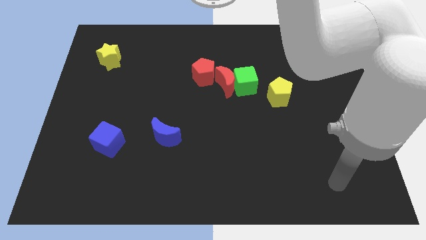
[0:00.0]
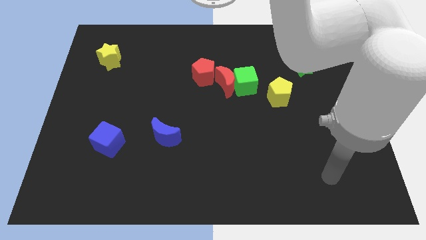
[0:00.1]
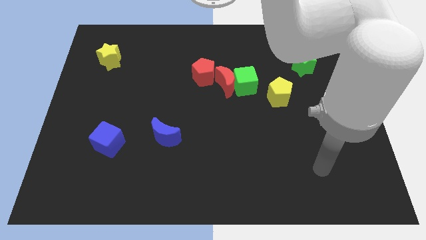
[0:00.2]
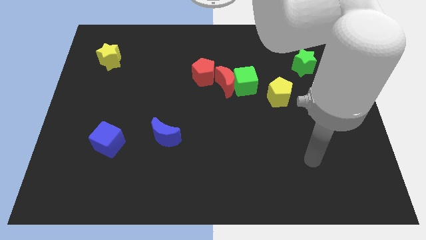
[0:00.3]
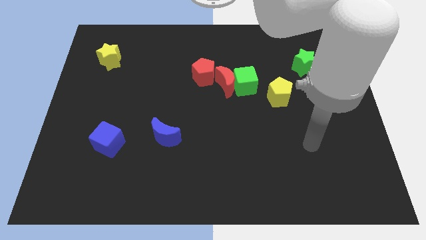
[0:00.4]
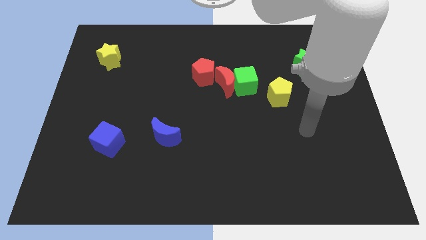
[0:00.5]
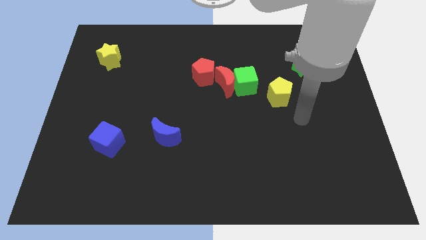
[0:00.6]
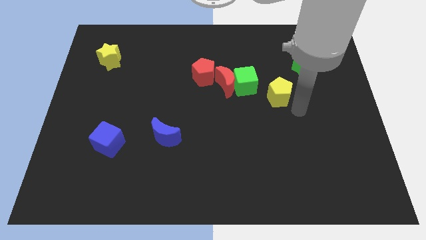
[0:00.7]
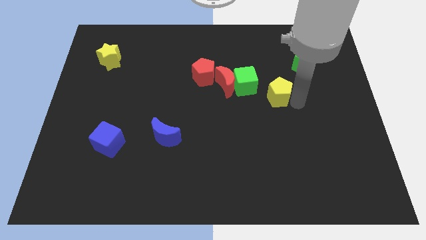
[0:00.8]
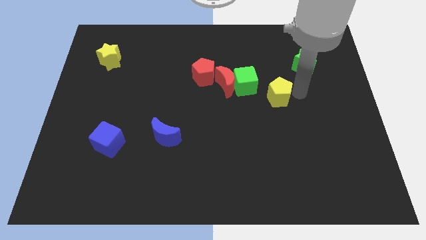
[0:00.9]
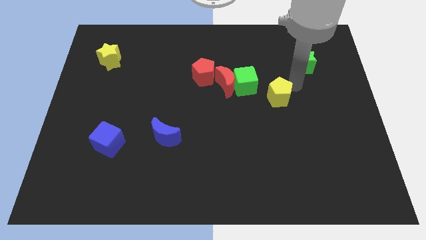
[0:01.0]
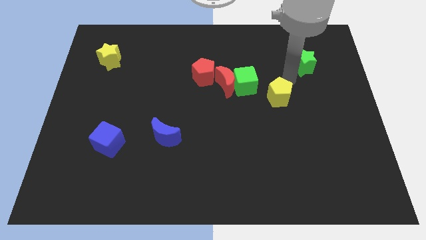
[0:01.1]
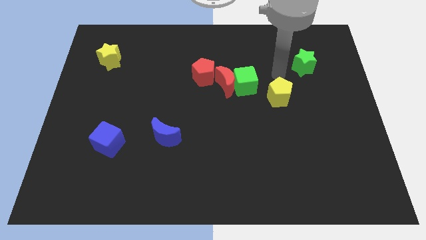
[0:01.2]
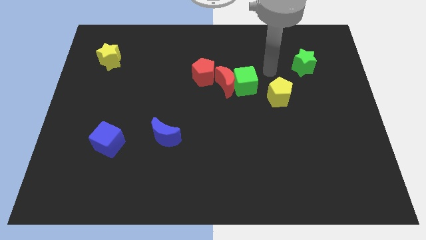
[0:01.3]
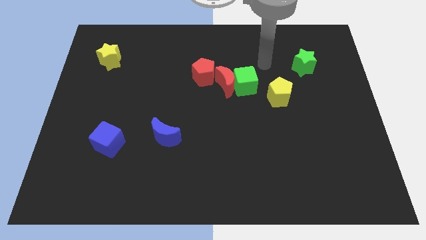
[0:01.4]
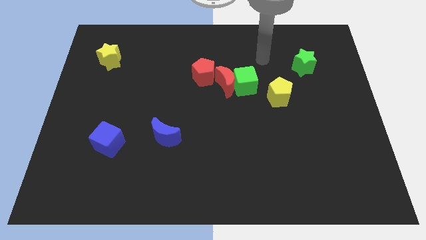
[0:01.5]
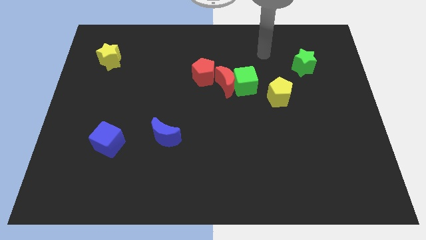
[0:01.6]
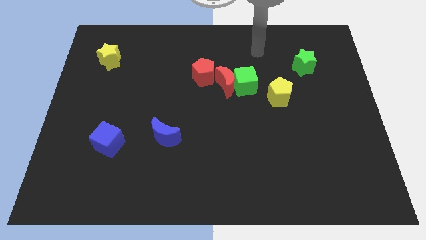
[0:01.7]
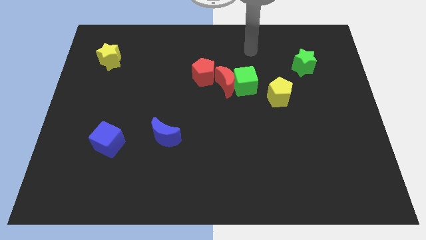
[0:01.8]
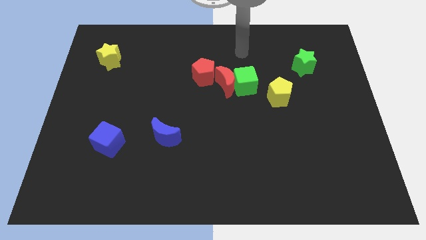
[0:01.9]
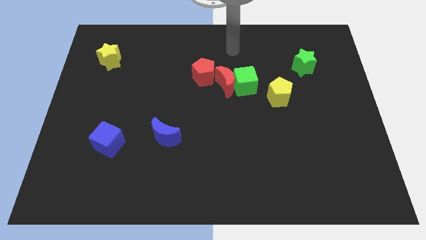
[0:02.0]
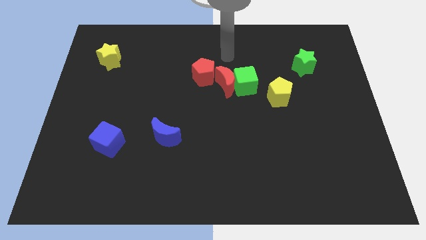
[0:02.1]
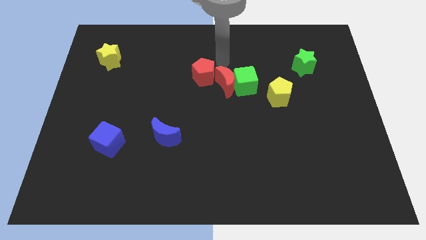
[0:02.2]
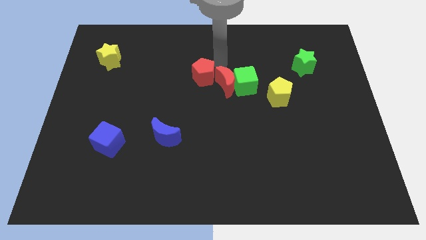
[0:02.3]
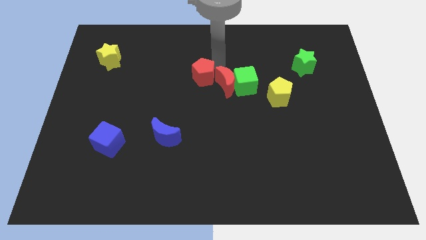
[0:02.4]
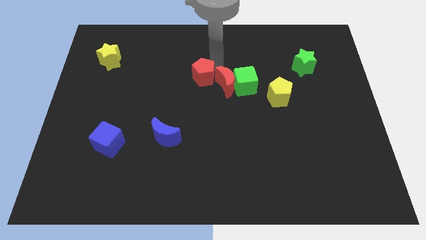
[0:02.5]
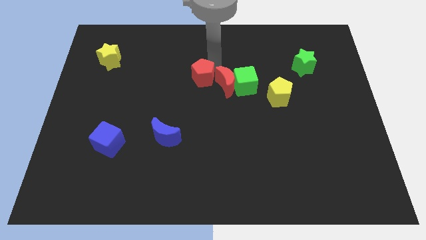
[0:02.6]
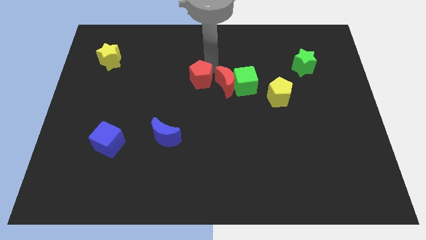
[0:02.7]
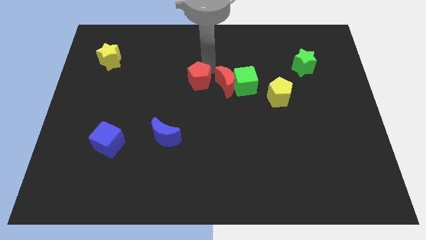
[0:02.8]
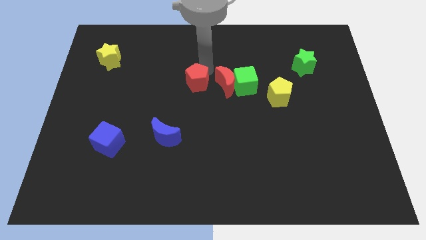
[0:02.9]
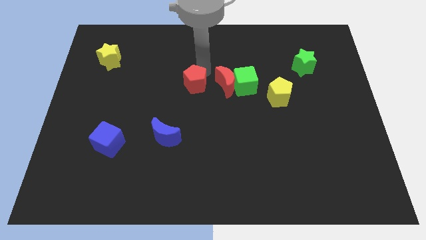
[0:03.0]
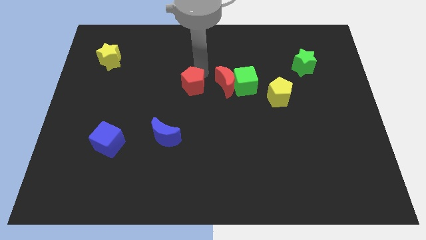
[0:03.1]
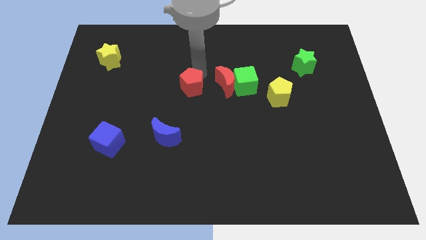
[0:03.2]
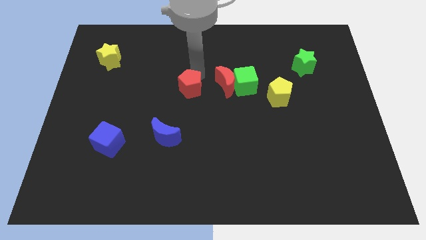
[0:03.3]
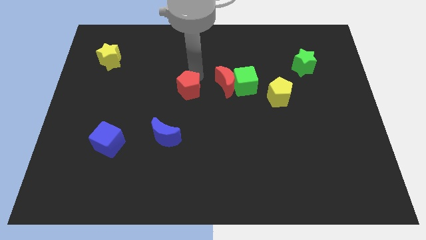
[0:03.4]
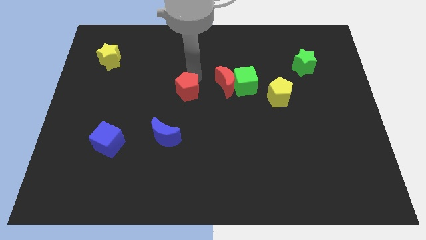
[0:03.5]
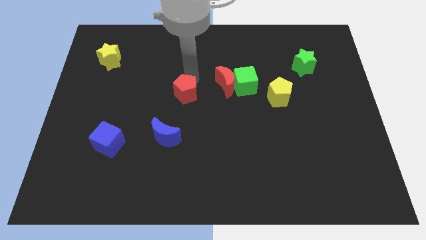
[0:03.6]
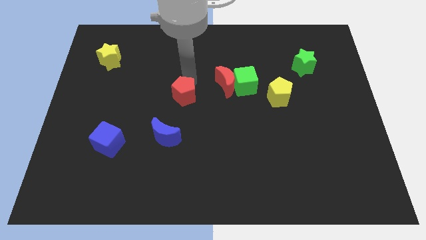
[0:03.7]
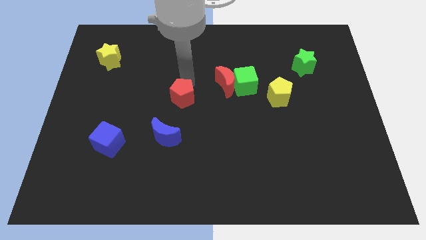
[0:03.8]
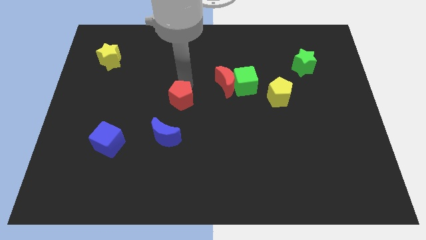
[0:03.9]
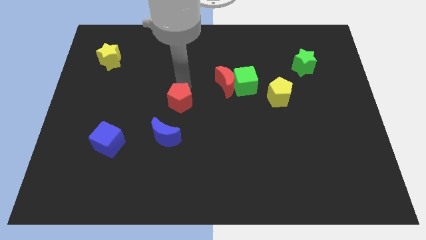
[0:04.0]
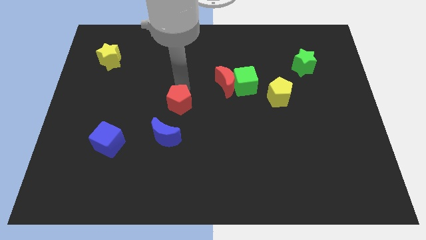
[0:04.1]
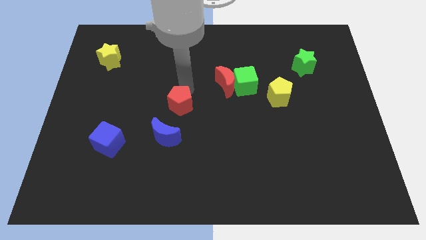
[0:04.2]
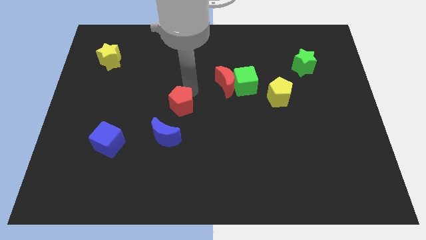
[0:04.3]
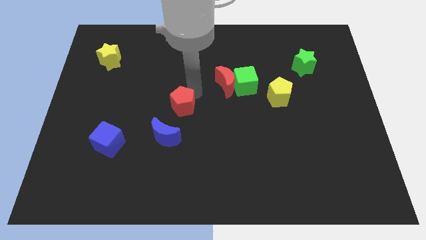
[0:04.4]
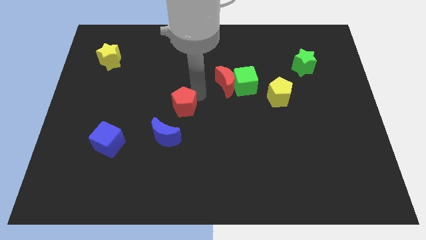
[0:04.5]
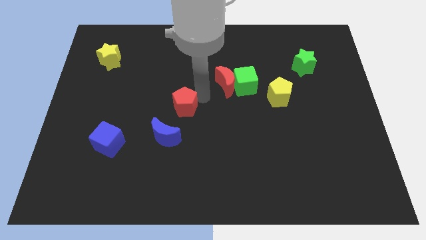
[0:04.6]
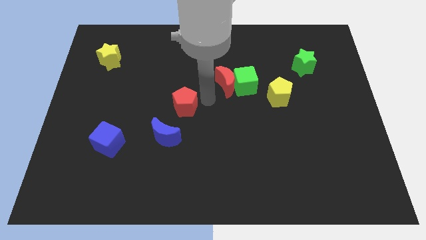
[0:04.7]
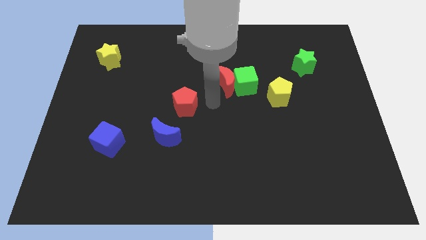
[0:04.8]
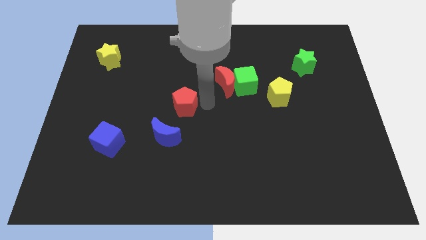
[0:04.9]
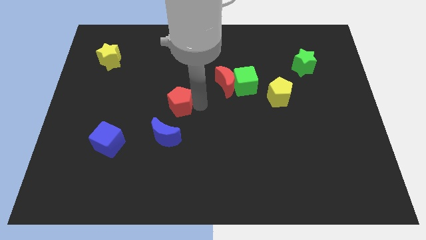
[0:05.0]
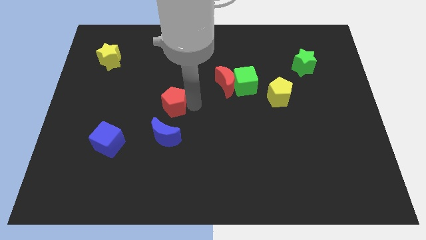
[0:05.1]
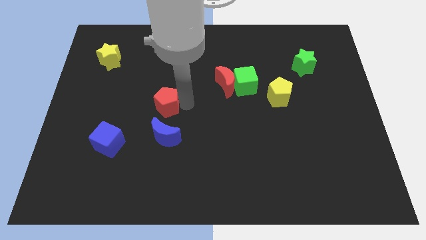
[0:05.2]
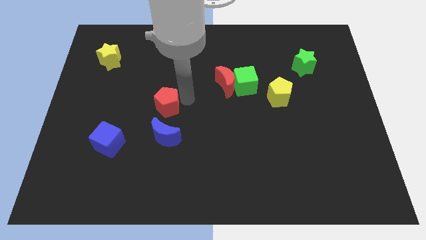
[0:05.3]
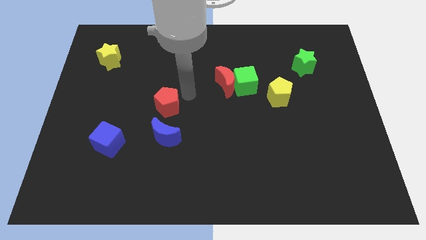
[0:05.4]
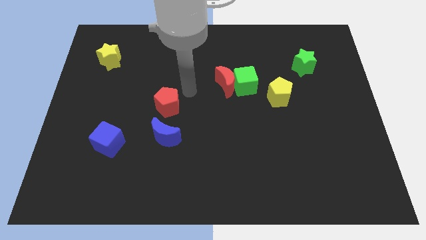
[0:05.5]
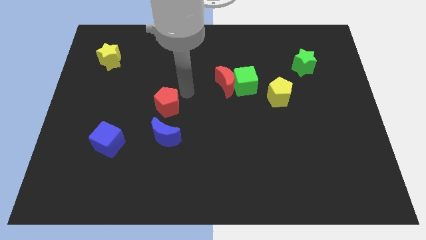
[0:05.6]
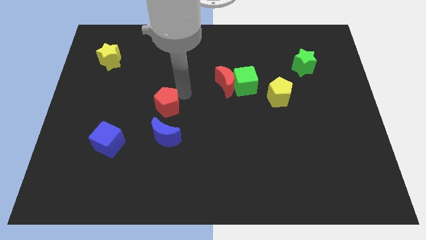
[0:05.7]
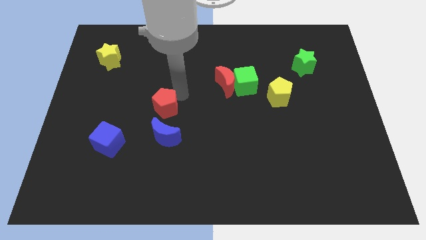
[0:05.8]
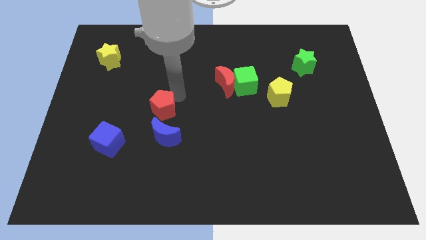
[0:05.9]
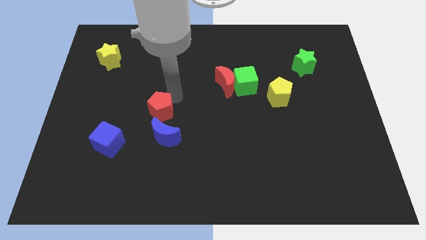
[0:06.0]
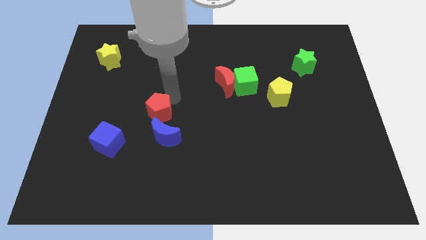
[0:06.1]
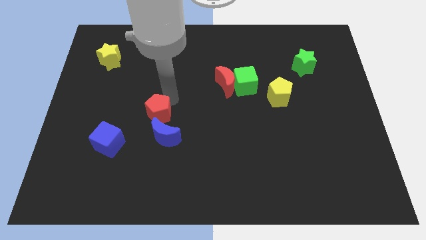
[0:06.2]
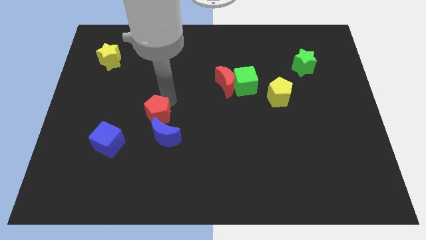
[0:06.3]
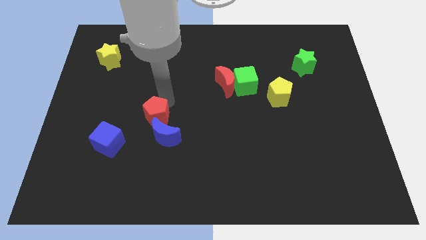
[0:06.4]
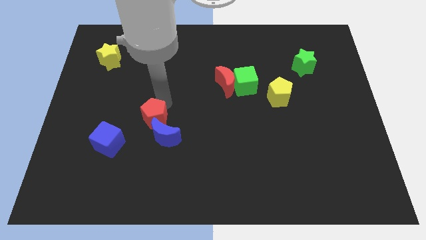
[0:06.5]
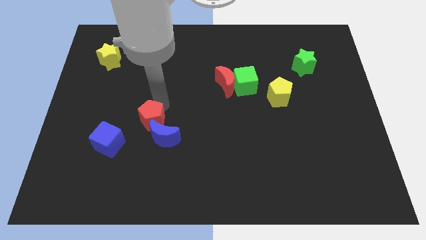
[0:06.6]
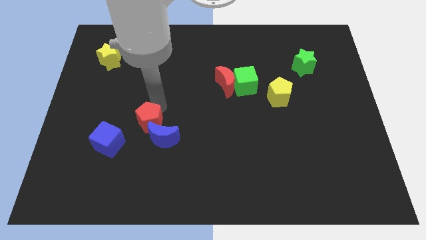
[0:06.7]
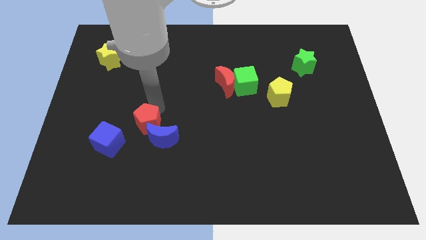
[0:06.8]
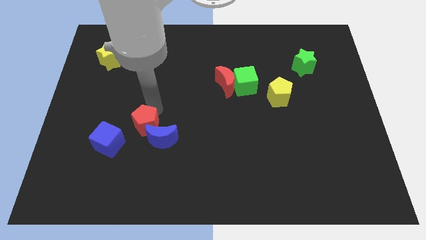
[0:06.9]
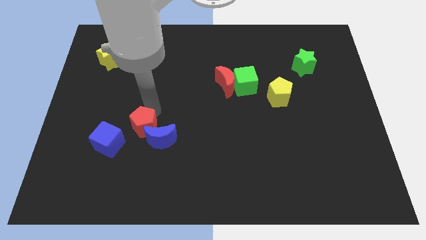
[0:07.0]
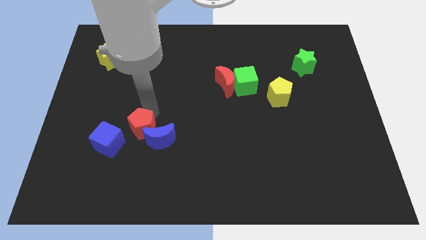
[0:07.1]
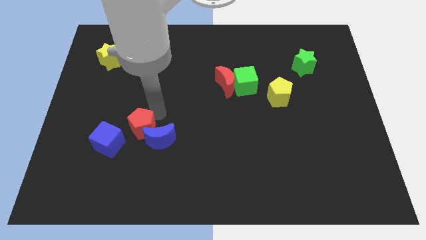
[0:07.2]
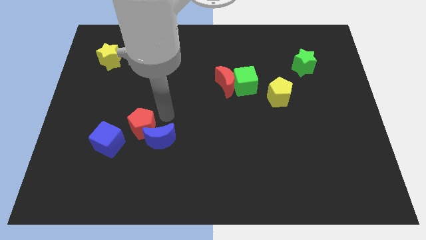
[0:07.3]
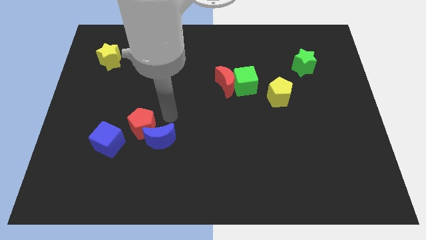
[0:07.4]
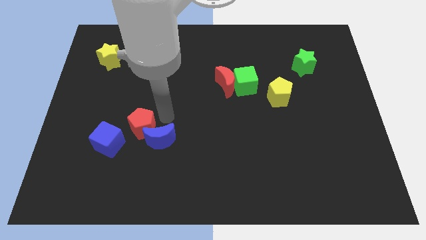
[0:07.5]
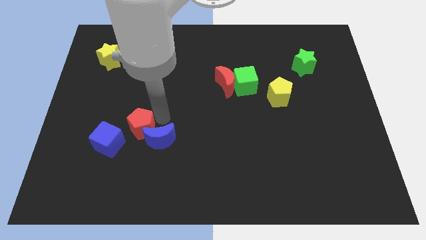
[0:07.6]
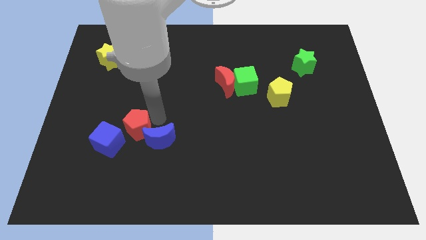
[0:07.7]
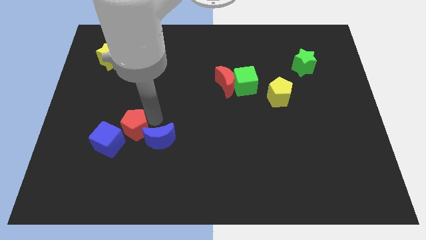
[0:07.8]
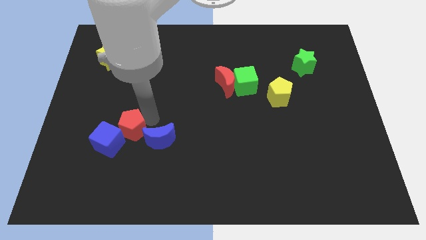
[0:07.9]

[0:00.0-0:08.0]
move the red pentagon to the blue cube
